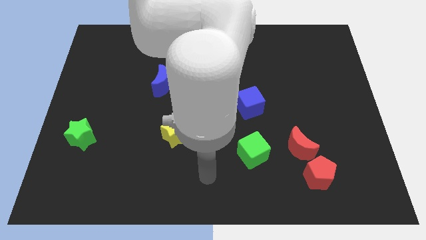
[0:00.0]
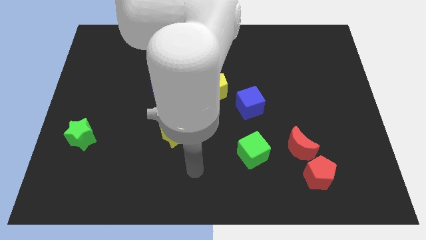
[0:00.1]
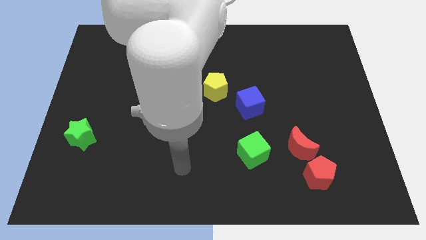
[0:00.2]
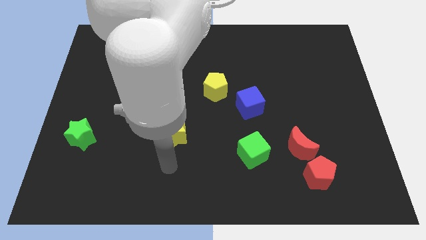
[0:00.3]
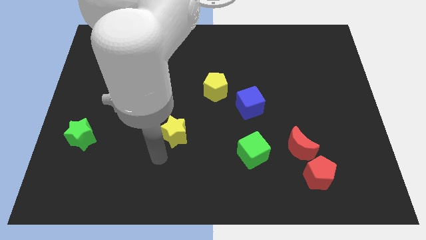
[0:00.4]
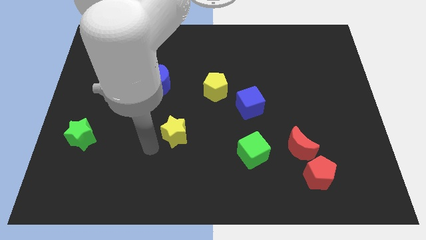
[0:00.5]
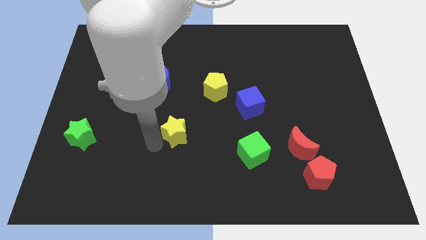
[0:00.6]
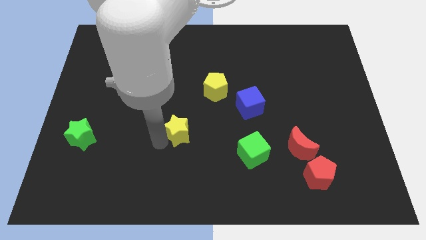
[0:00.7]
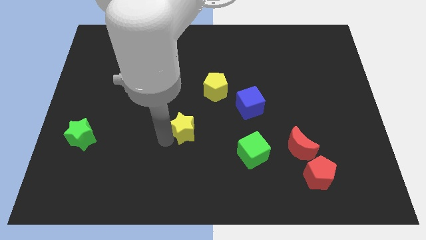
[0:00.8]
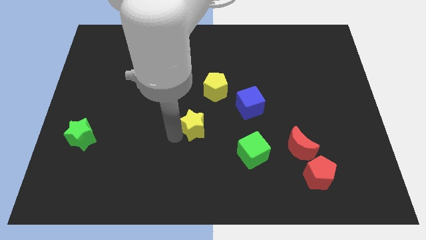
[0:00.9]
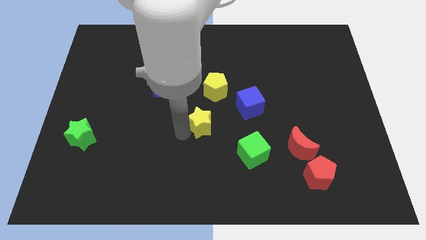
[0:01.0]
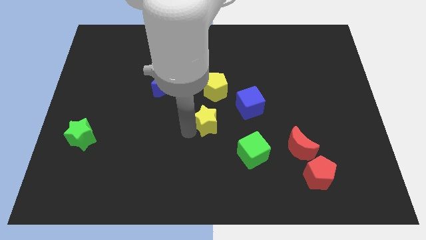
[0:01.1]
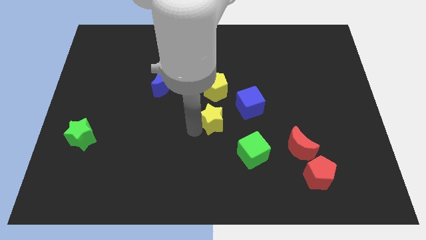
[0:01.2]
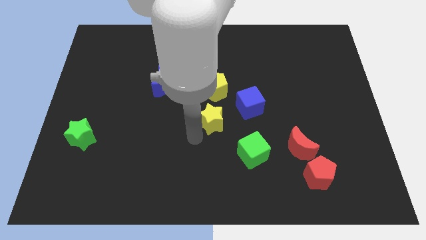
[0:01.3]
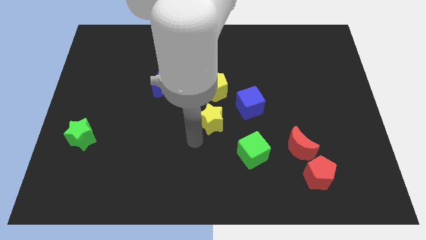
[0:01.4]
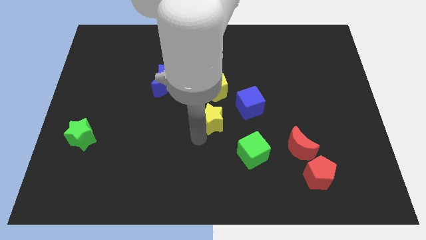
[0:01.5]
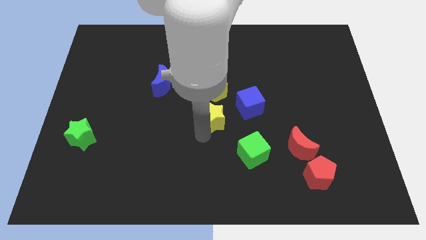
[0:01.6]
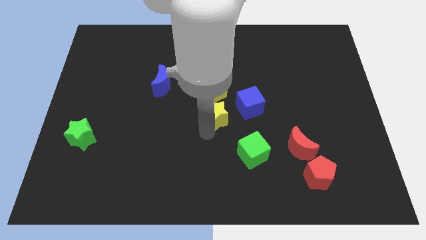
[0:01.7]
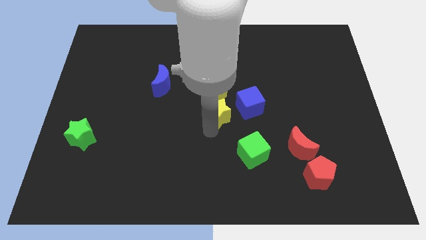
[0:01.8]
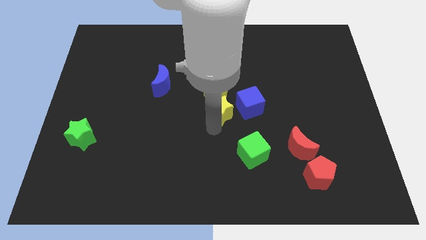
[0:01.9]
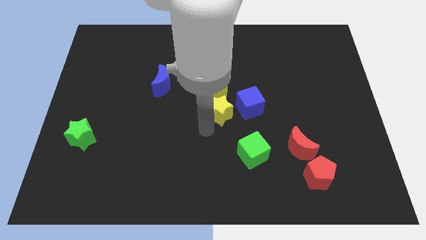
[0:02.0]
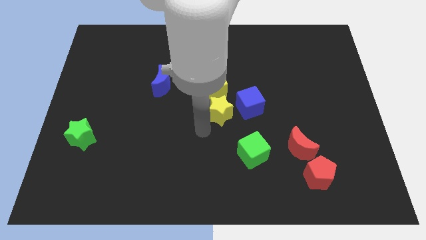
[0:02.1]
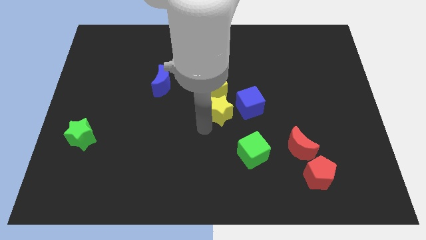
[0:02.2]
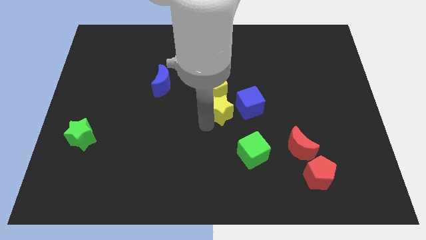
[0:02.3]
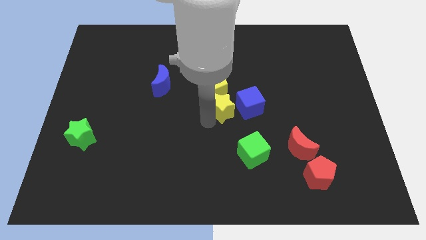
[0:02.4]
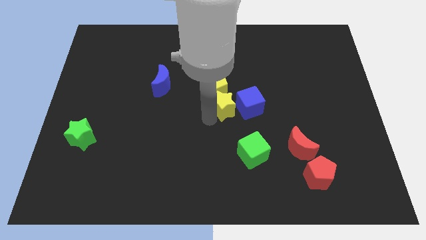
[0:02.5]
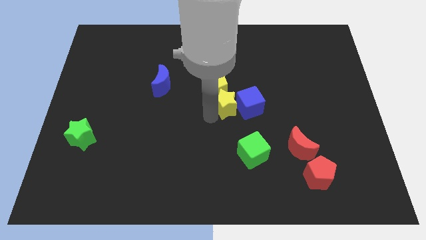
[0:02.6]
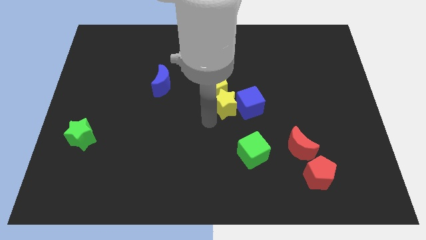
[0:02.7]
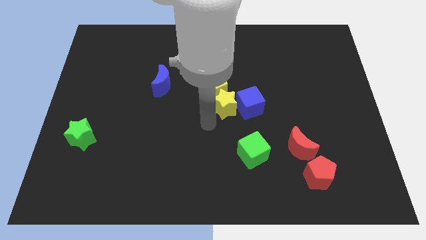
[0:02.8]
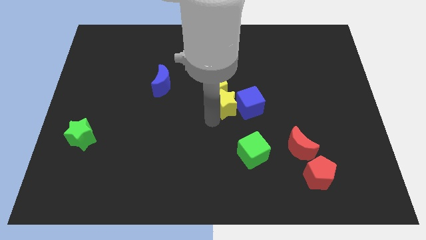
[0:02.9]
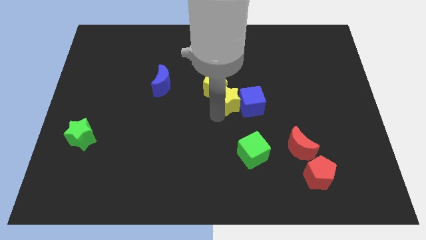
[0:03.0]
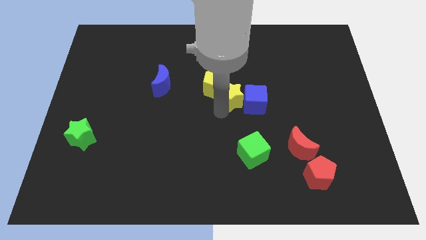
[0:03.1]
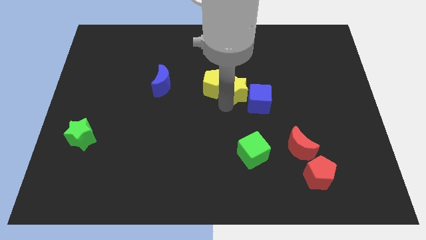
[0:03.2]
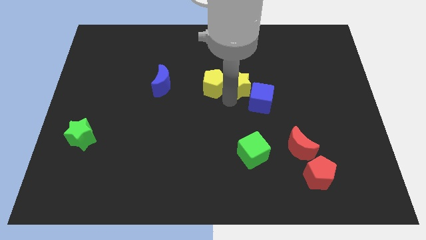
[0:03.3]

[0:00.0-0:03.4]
push the yellow star up and to the right diagonally

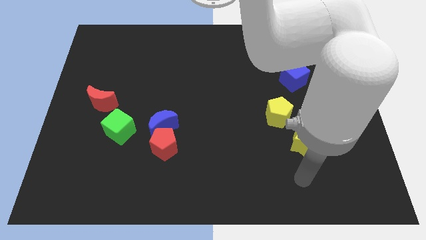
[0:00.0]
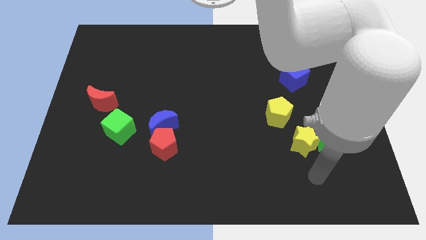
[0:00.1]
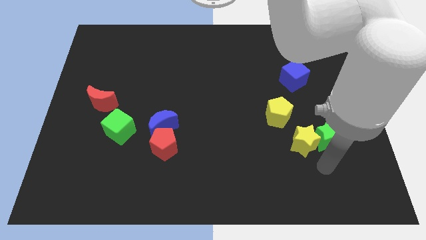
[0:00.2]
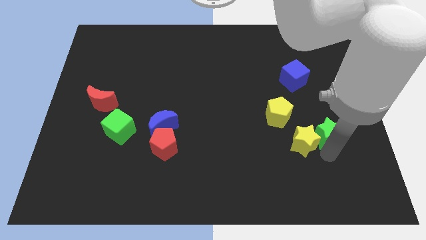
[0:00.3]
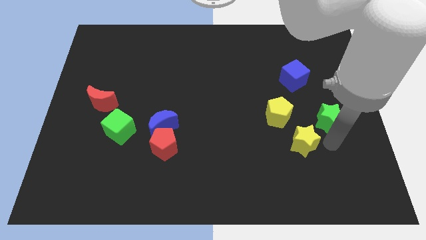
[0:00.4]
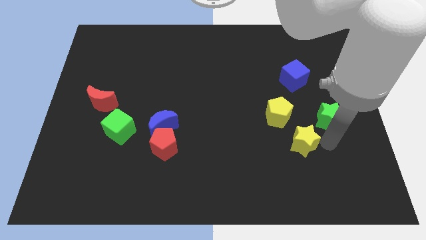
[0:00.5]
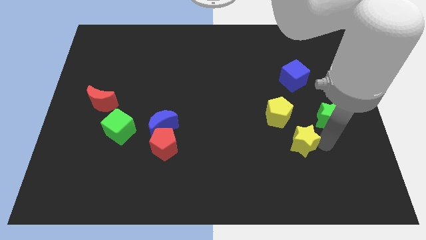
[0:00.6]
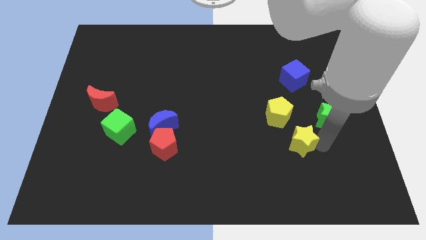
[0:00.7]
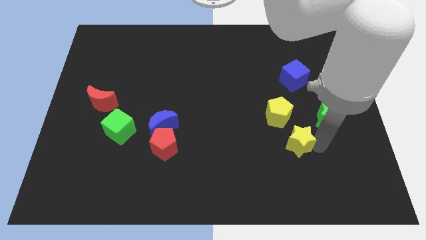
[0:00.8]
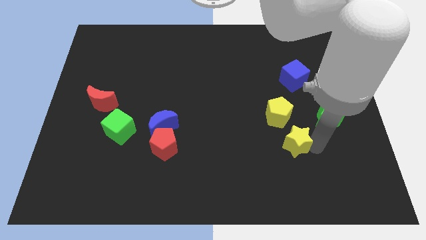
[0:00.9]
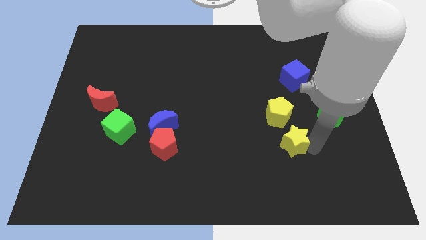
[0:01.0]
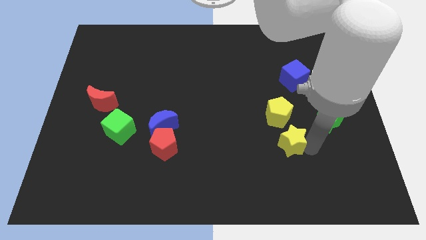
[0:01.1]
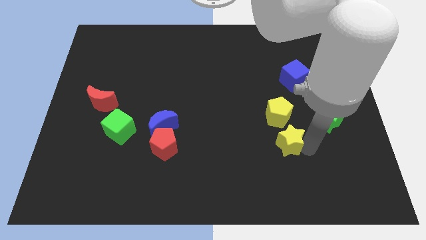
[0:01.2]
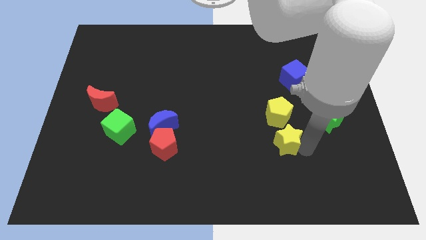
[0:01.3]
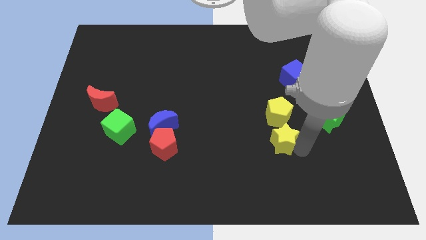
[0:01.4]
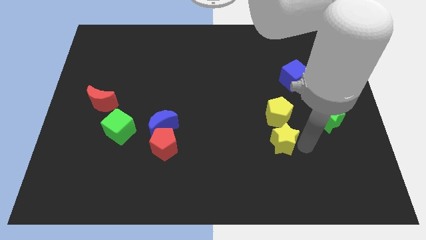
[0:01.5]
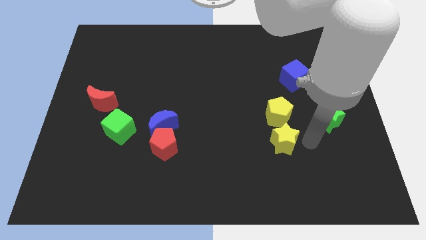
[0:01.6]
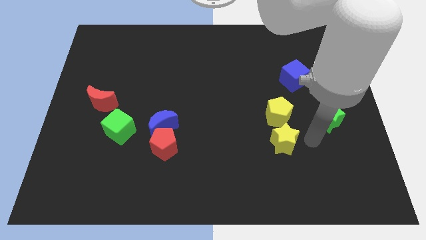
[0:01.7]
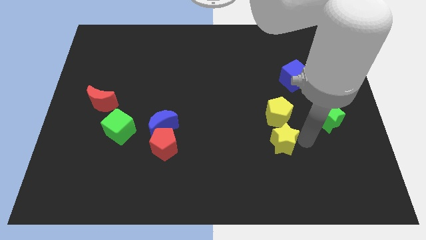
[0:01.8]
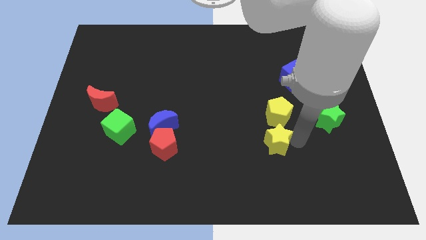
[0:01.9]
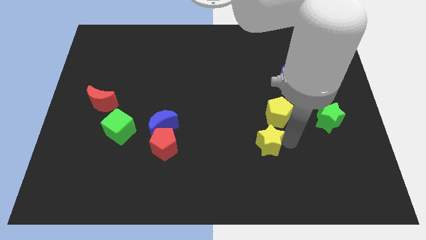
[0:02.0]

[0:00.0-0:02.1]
move the yellow star a little bit left

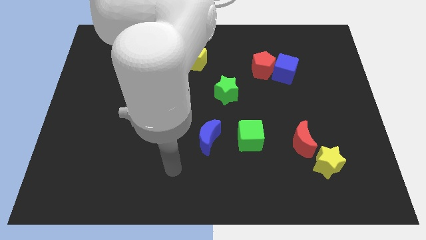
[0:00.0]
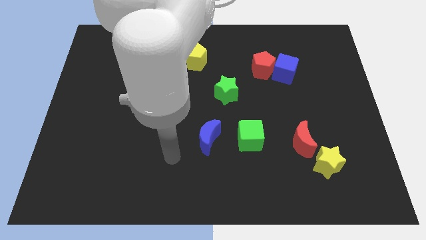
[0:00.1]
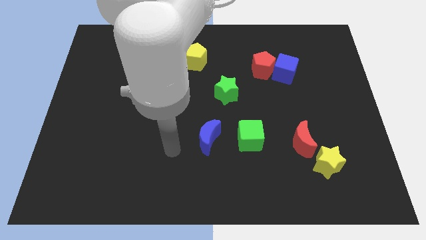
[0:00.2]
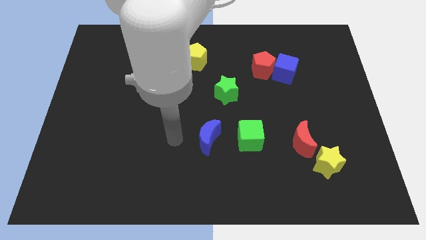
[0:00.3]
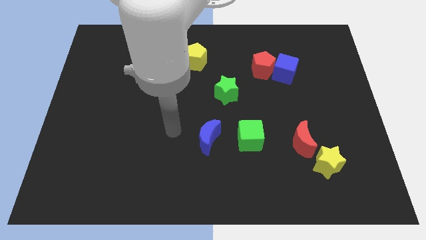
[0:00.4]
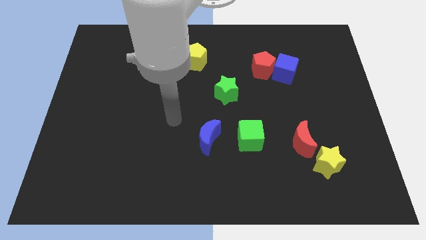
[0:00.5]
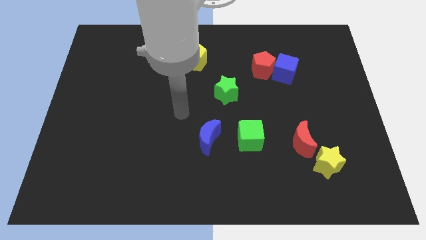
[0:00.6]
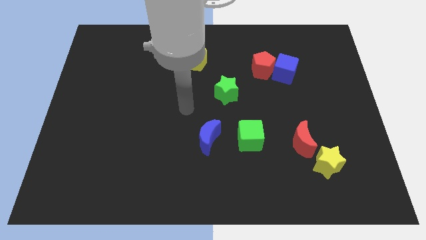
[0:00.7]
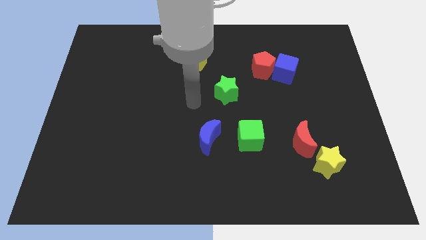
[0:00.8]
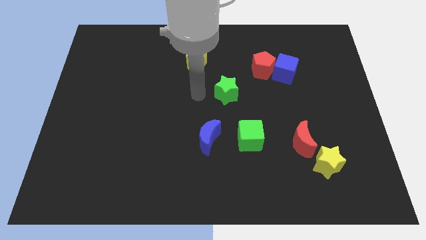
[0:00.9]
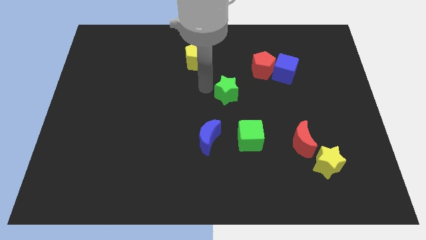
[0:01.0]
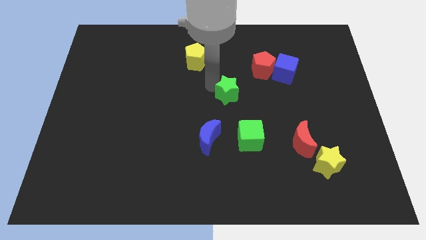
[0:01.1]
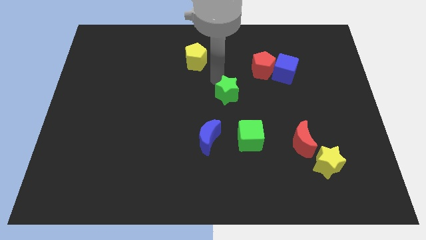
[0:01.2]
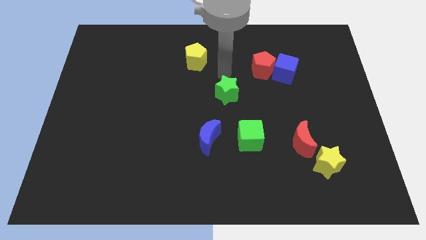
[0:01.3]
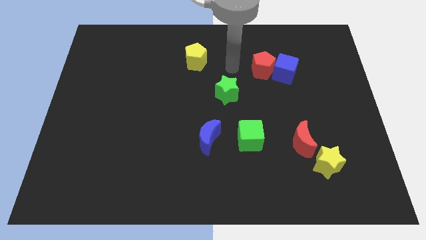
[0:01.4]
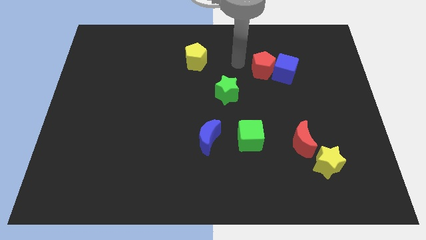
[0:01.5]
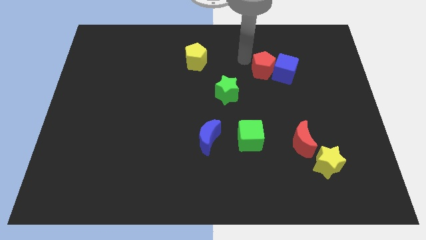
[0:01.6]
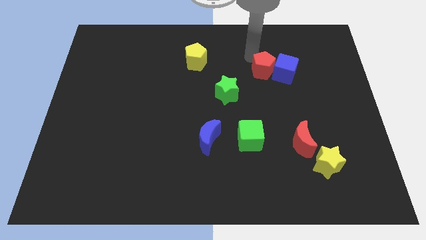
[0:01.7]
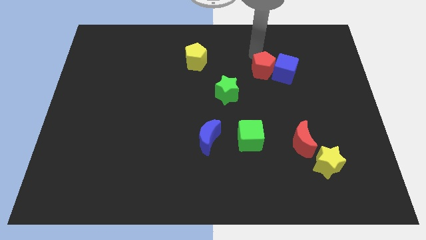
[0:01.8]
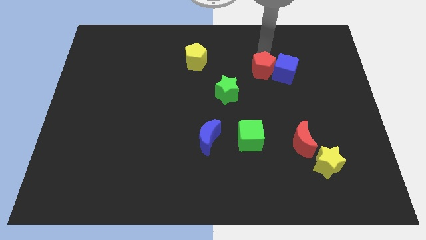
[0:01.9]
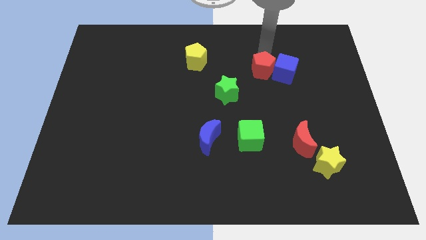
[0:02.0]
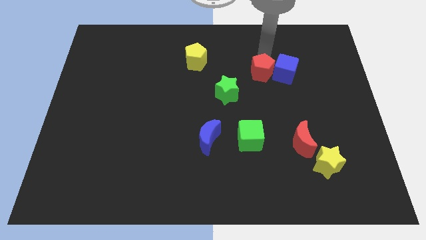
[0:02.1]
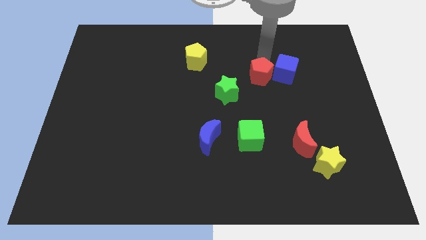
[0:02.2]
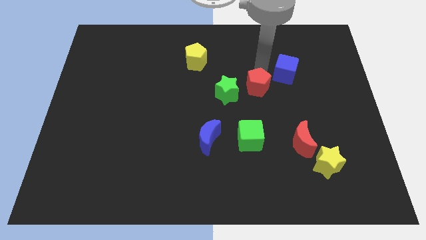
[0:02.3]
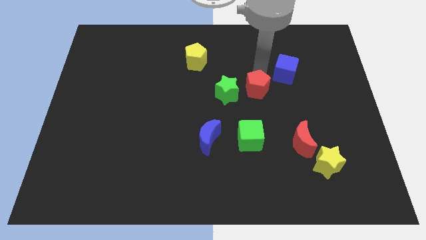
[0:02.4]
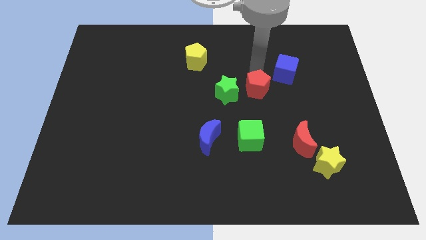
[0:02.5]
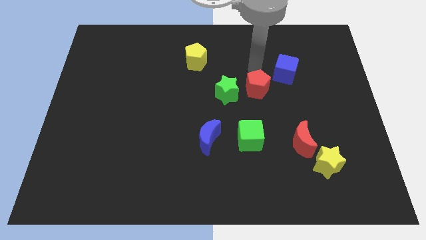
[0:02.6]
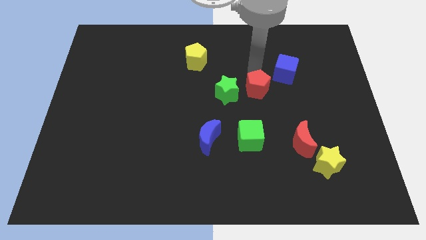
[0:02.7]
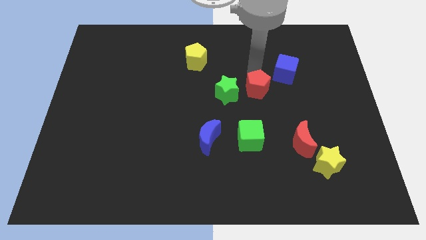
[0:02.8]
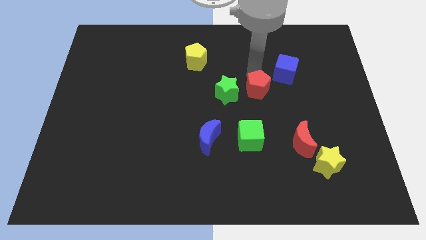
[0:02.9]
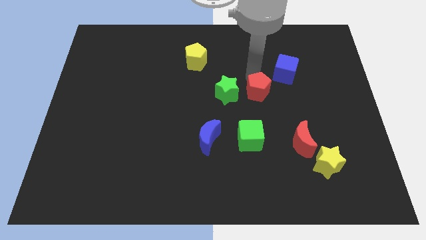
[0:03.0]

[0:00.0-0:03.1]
move the red pentagon a little bit down

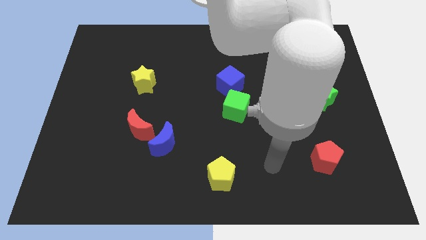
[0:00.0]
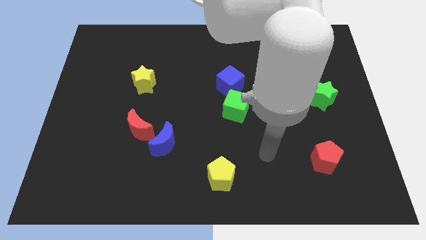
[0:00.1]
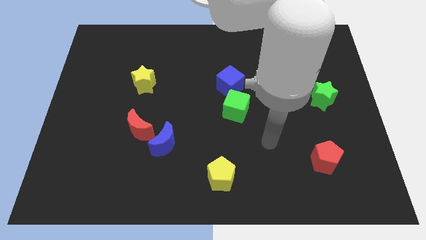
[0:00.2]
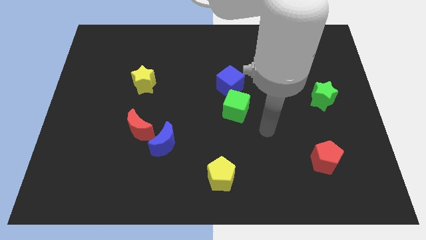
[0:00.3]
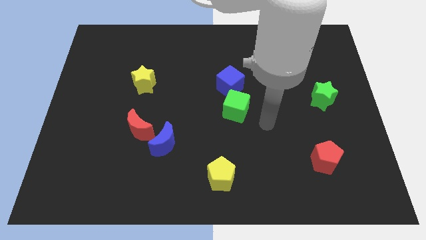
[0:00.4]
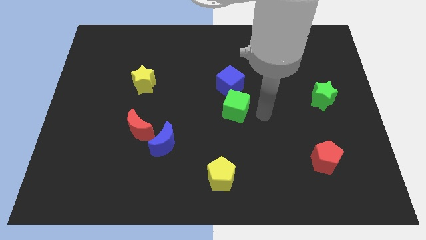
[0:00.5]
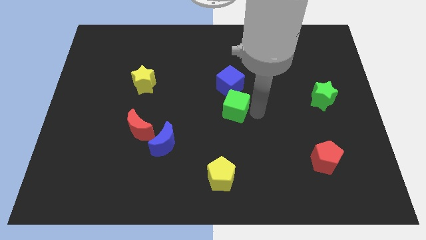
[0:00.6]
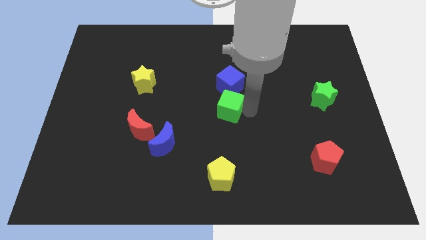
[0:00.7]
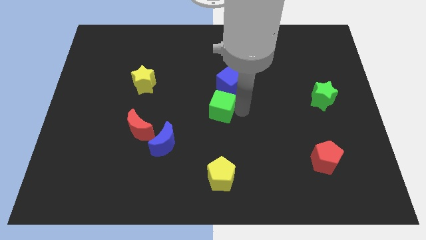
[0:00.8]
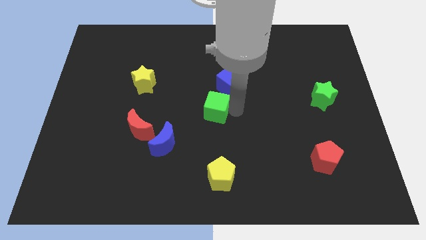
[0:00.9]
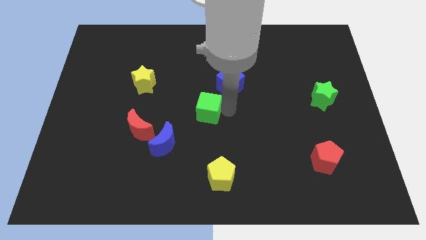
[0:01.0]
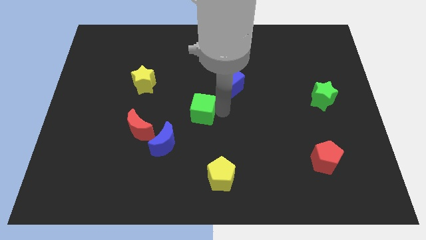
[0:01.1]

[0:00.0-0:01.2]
slightly move the green cube to the left
